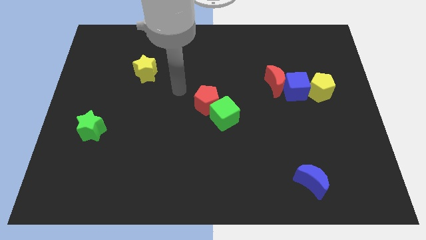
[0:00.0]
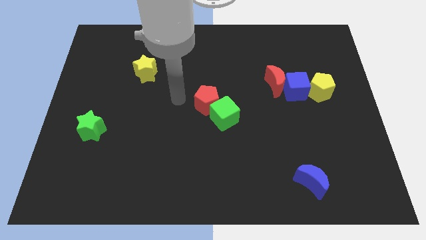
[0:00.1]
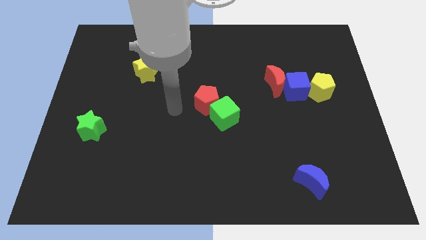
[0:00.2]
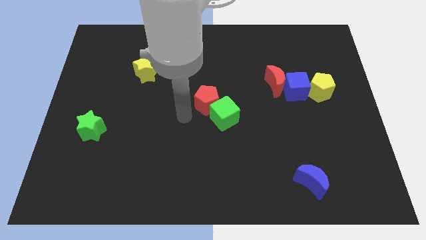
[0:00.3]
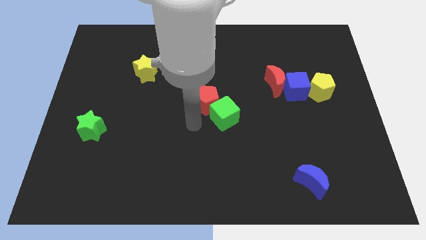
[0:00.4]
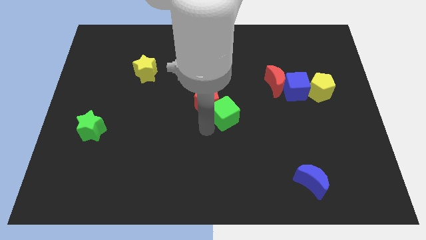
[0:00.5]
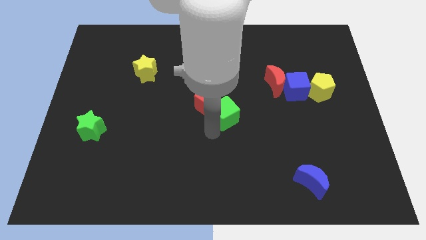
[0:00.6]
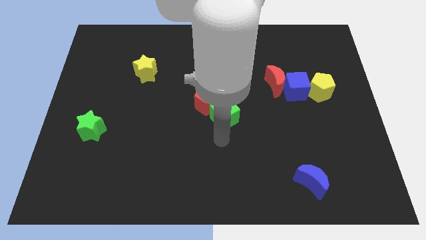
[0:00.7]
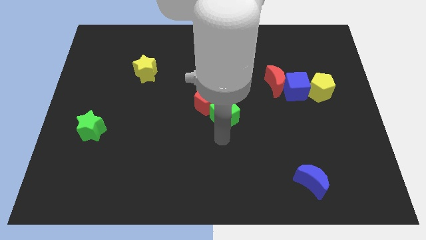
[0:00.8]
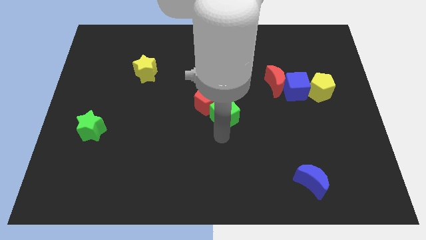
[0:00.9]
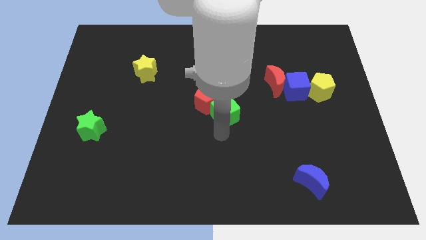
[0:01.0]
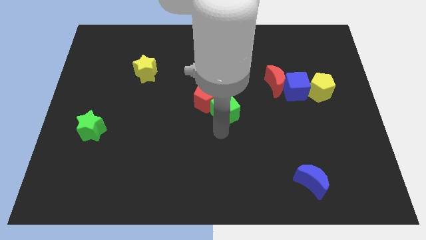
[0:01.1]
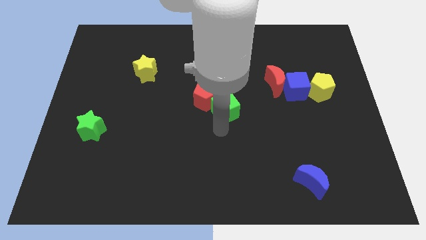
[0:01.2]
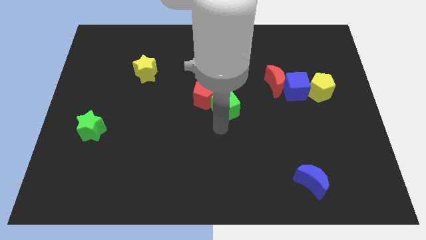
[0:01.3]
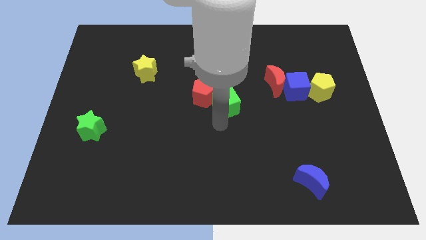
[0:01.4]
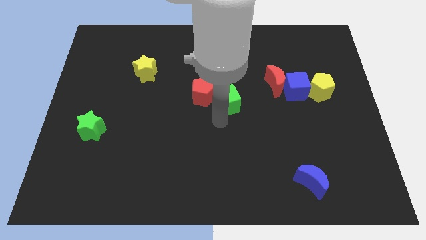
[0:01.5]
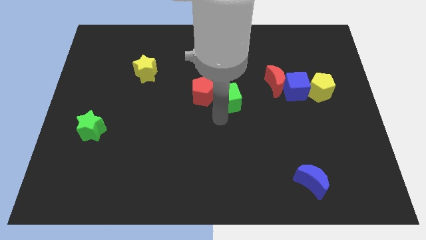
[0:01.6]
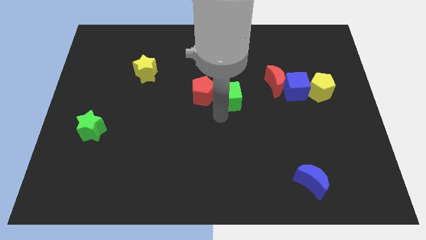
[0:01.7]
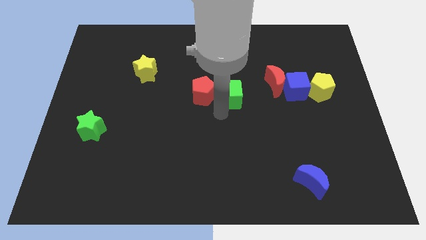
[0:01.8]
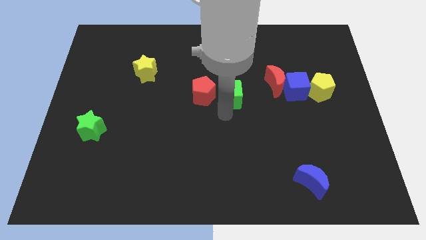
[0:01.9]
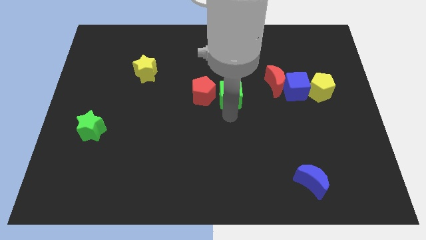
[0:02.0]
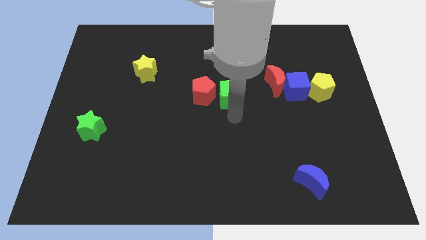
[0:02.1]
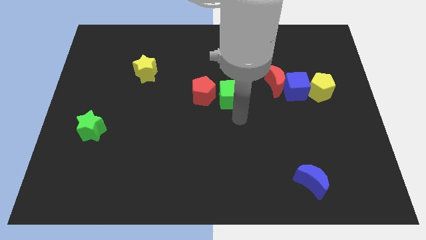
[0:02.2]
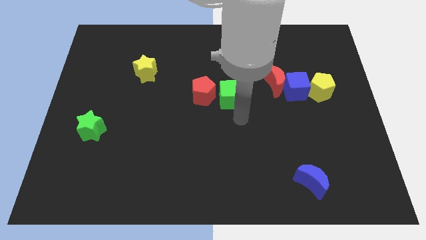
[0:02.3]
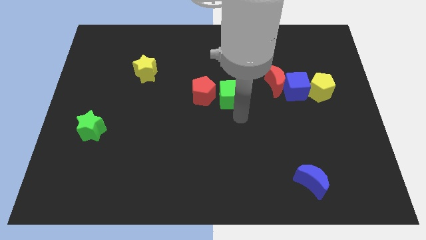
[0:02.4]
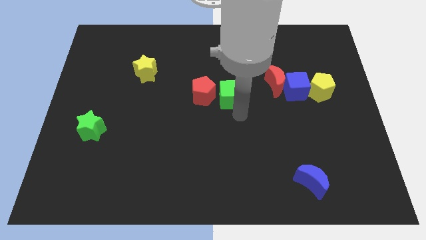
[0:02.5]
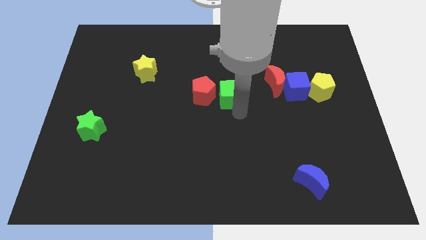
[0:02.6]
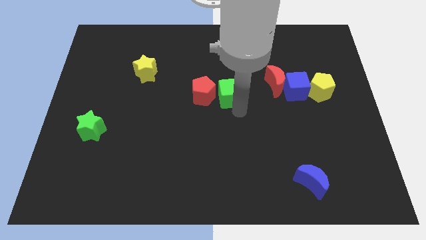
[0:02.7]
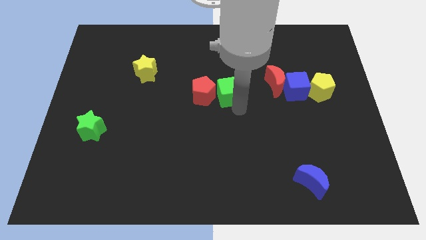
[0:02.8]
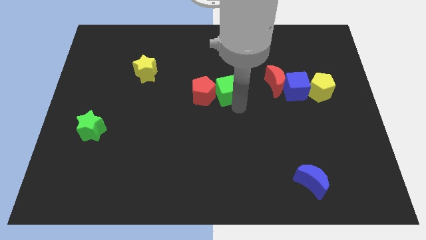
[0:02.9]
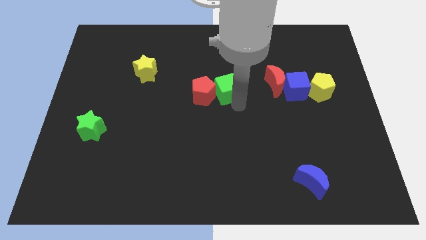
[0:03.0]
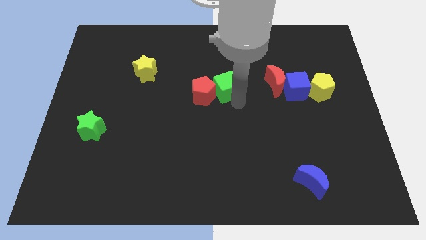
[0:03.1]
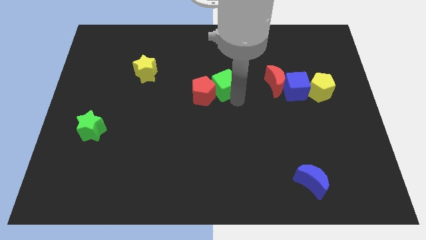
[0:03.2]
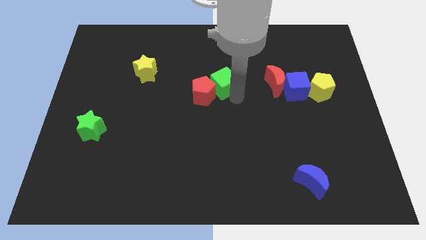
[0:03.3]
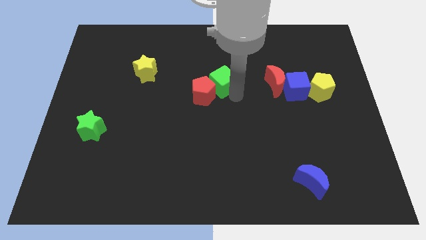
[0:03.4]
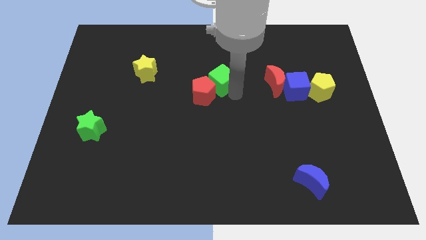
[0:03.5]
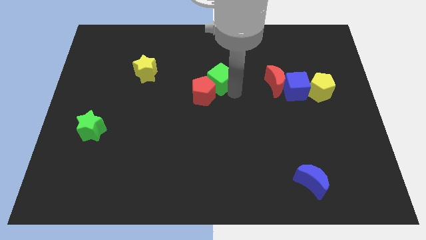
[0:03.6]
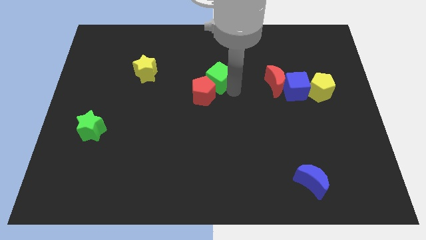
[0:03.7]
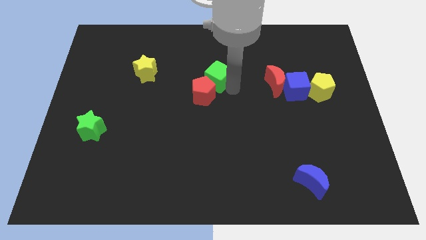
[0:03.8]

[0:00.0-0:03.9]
push the green cube a little bit diagonally upwards and to the left

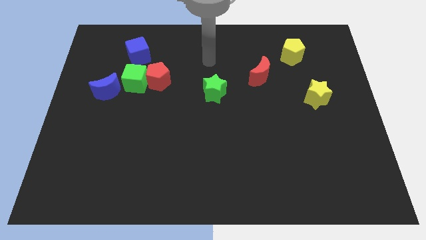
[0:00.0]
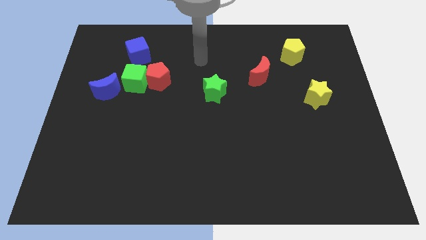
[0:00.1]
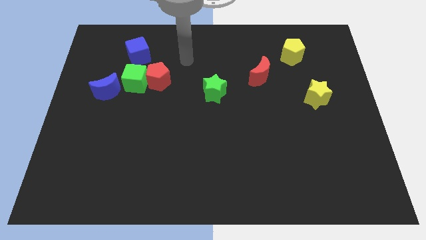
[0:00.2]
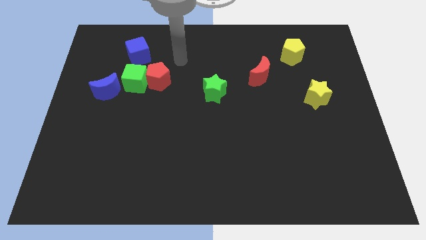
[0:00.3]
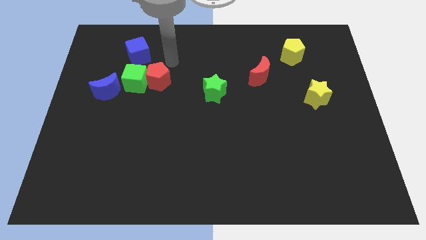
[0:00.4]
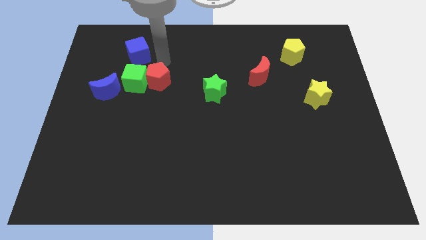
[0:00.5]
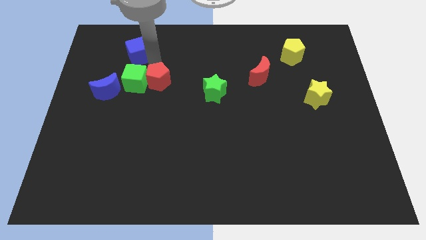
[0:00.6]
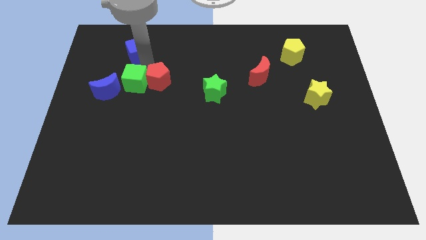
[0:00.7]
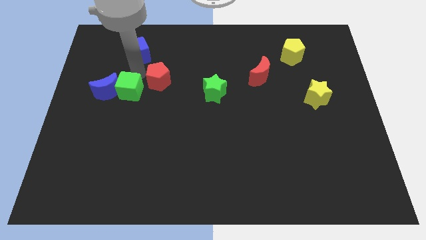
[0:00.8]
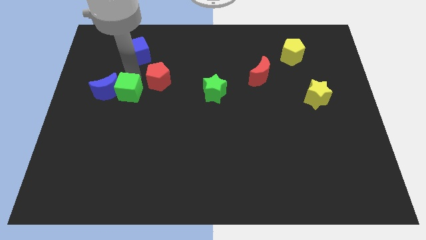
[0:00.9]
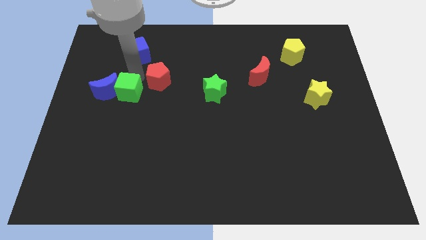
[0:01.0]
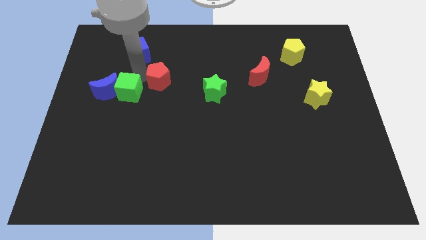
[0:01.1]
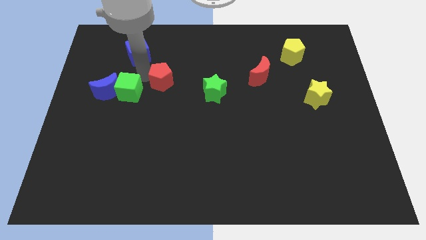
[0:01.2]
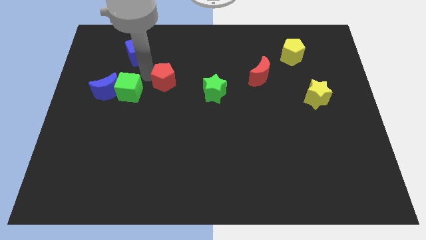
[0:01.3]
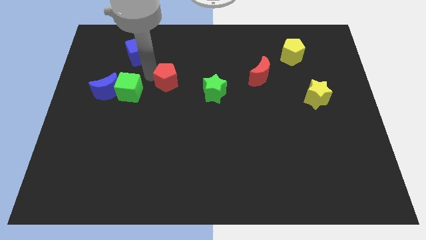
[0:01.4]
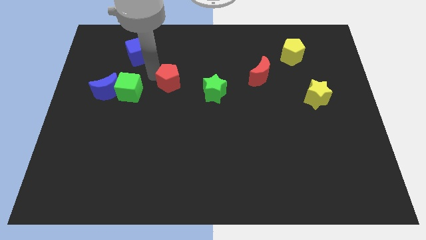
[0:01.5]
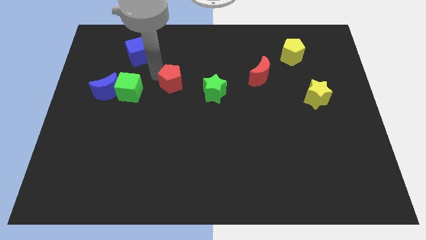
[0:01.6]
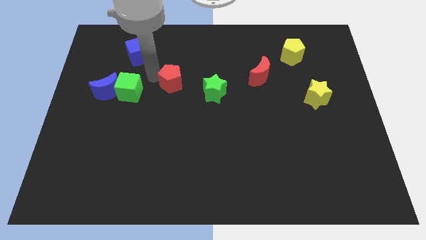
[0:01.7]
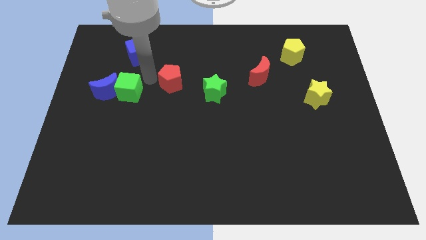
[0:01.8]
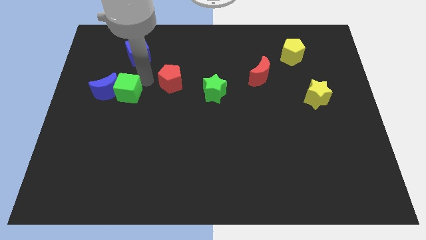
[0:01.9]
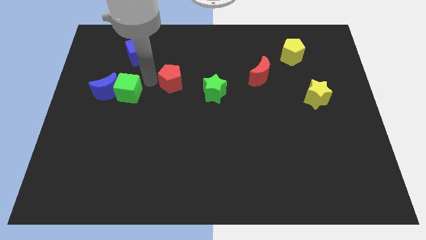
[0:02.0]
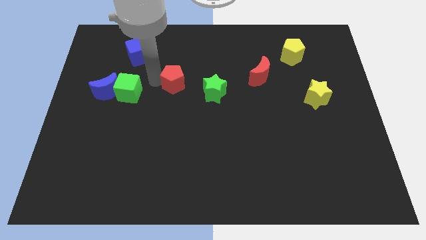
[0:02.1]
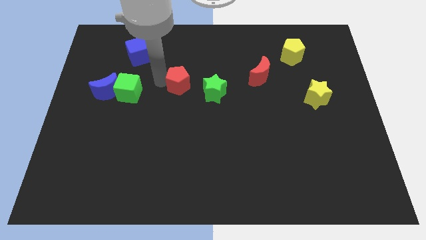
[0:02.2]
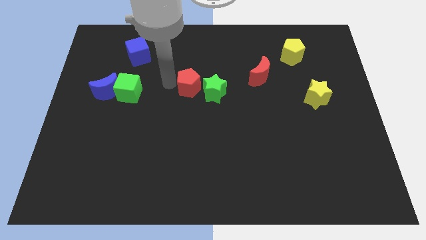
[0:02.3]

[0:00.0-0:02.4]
push the red pentagon right a little

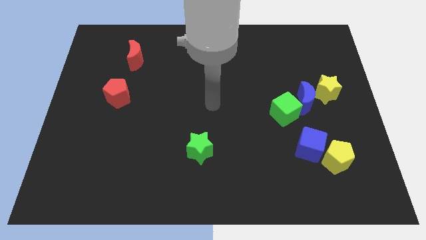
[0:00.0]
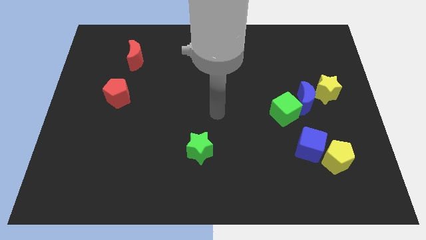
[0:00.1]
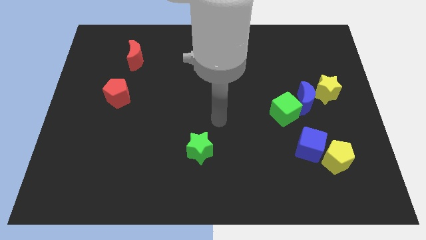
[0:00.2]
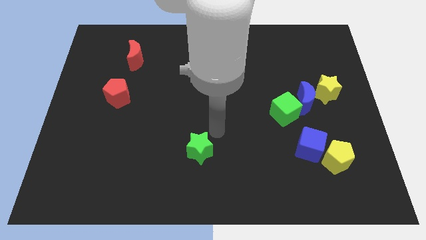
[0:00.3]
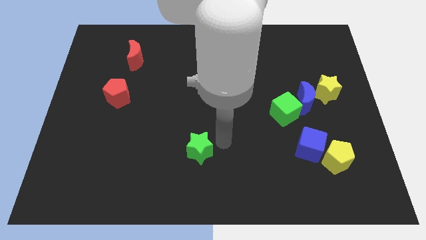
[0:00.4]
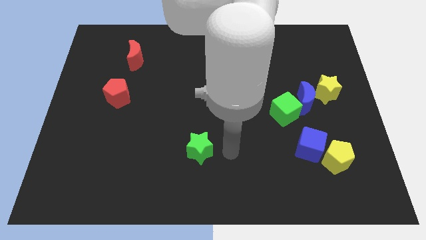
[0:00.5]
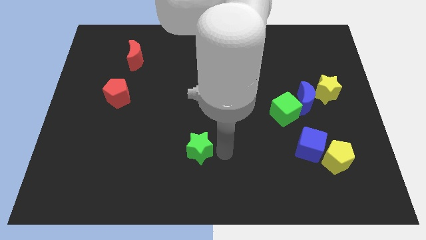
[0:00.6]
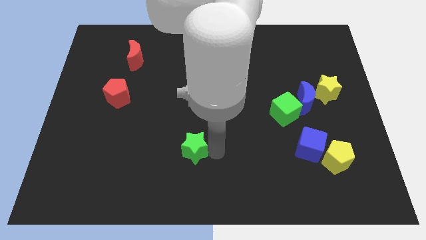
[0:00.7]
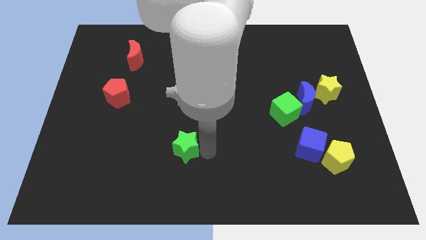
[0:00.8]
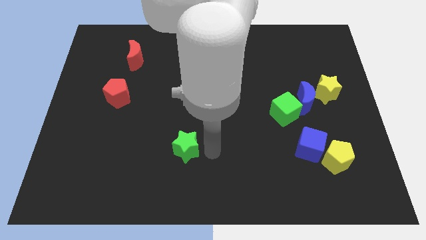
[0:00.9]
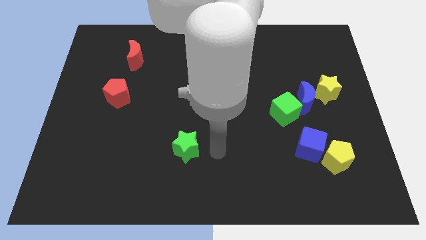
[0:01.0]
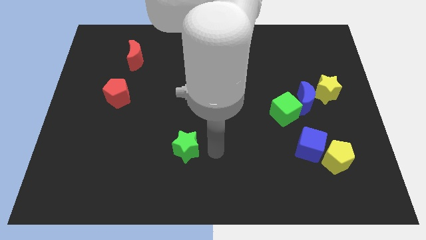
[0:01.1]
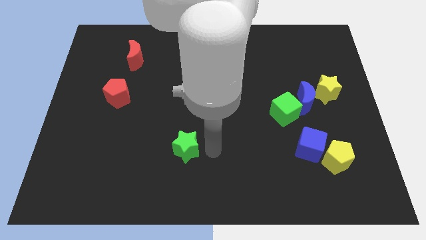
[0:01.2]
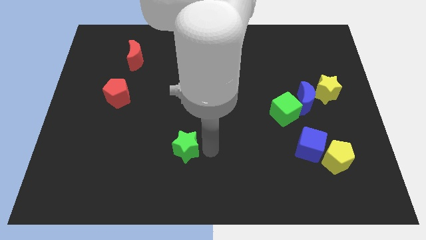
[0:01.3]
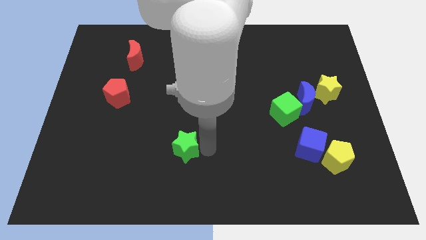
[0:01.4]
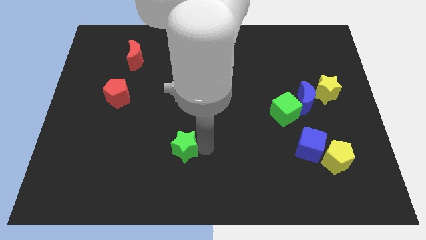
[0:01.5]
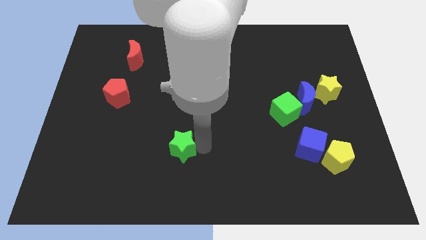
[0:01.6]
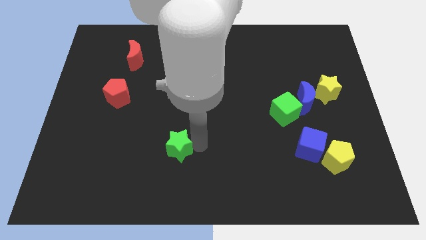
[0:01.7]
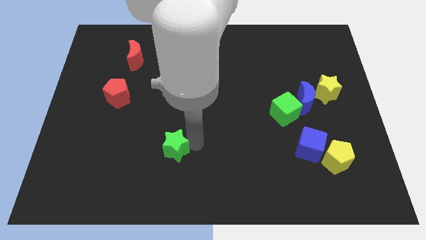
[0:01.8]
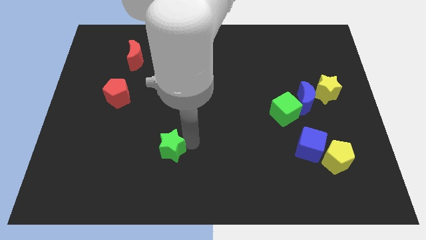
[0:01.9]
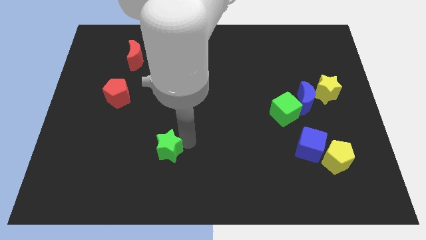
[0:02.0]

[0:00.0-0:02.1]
slightly move the green star to the left
